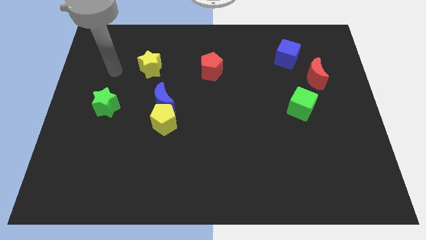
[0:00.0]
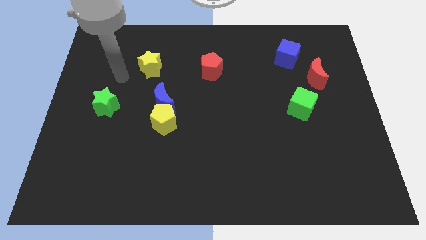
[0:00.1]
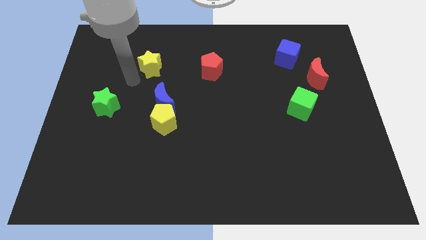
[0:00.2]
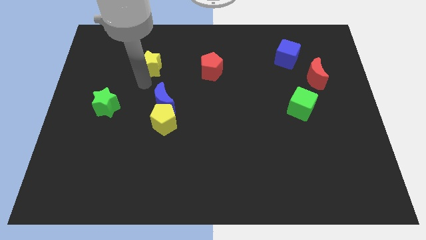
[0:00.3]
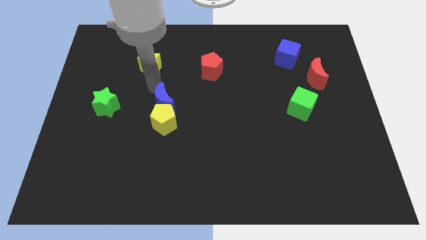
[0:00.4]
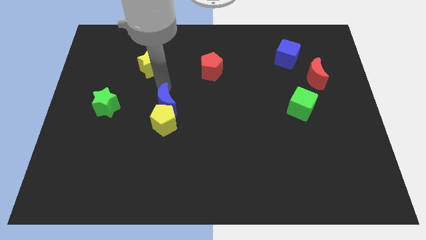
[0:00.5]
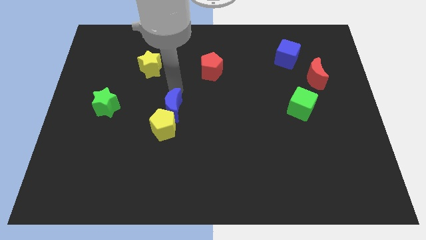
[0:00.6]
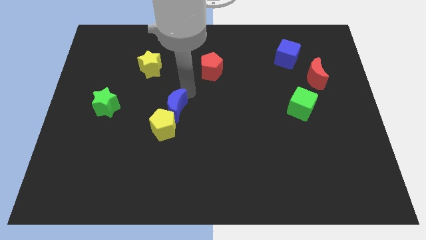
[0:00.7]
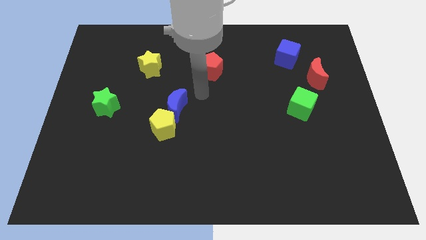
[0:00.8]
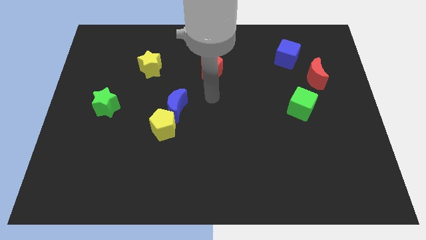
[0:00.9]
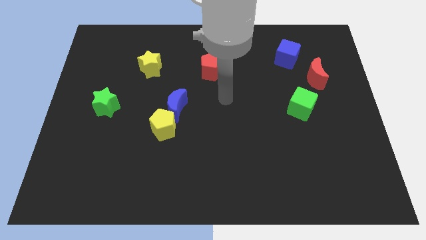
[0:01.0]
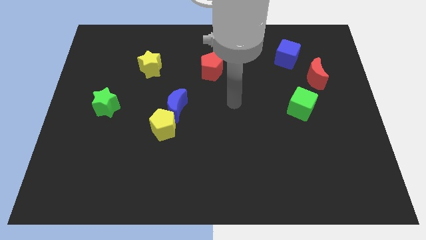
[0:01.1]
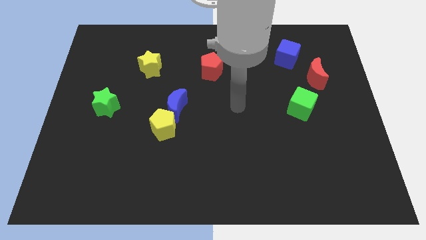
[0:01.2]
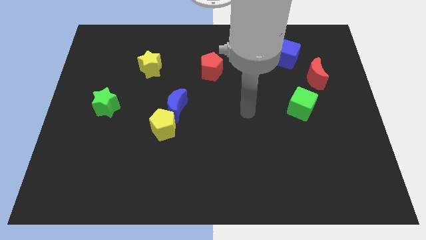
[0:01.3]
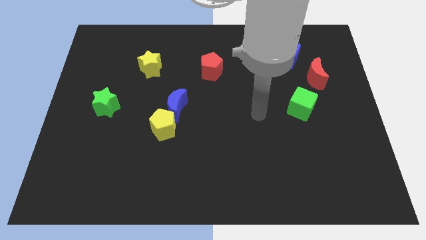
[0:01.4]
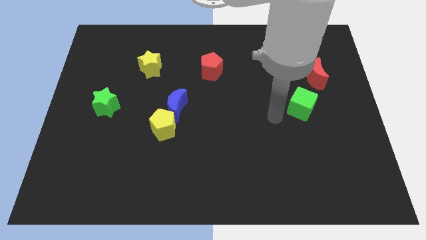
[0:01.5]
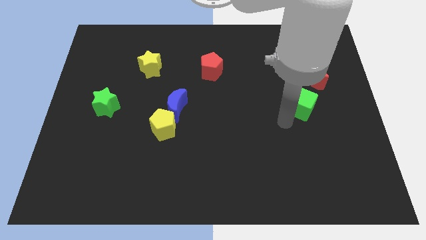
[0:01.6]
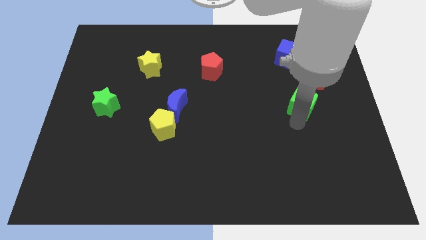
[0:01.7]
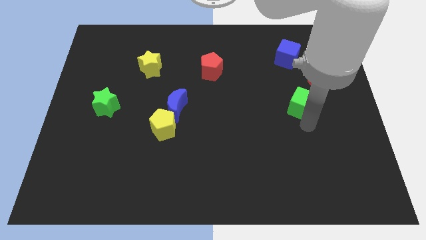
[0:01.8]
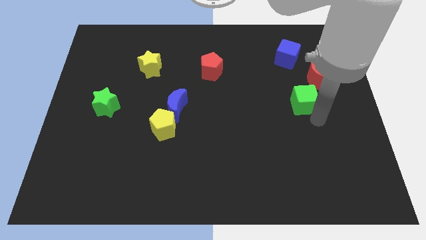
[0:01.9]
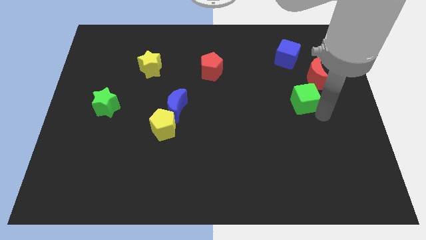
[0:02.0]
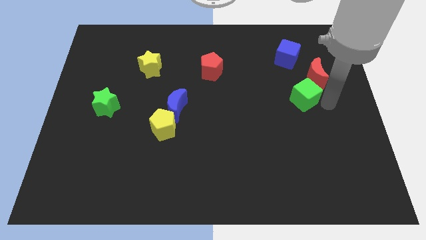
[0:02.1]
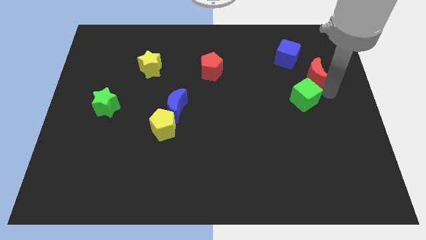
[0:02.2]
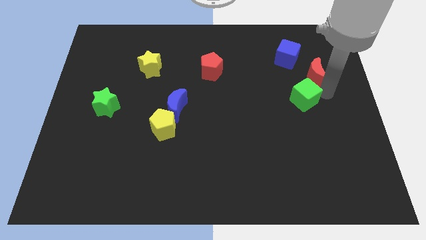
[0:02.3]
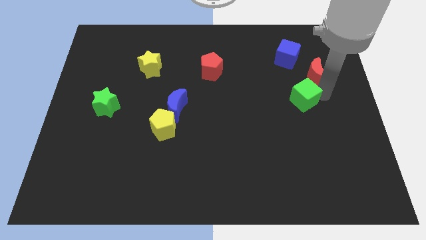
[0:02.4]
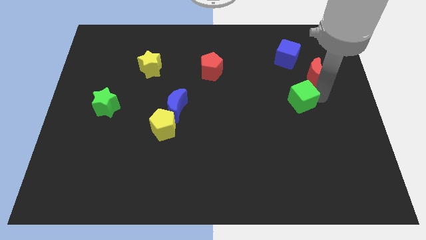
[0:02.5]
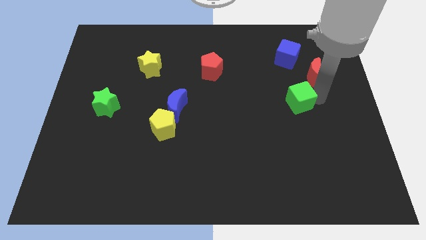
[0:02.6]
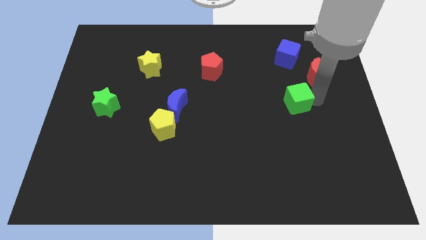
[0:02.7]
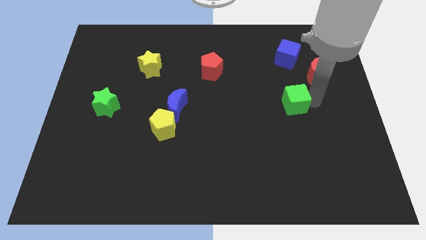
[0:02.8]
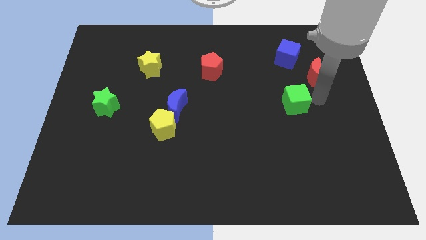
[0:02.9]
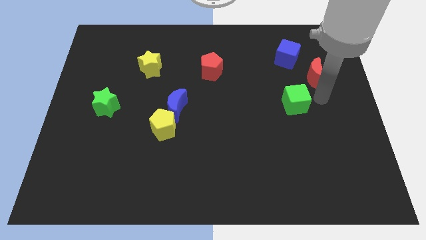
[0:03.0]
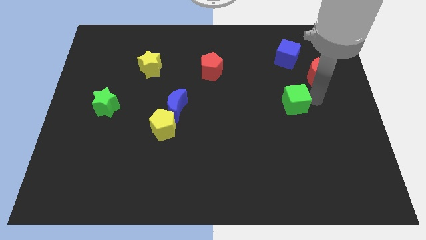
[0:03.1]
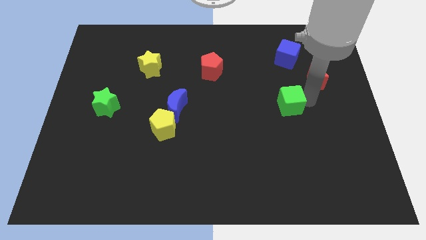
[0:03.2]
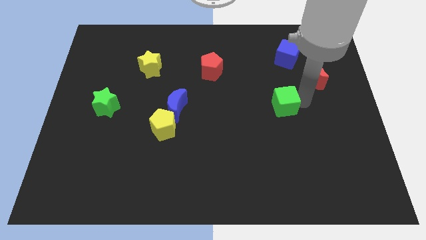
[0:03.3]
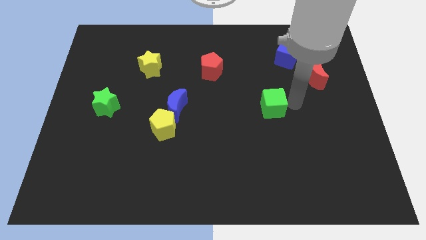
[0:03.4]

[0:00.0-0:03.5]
slightly slide the green cube to the left

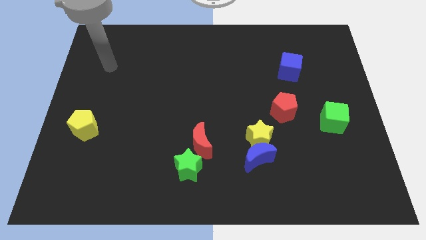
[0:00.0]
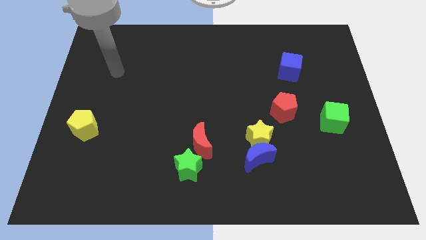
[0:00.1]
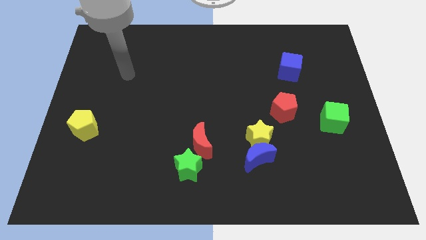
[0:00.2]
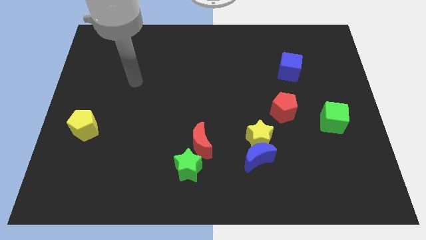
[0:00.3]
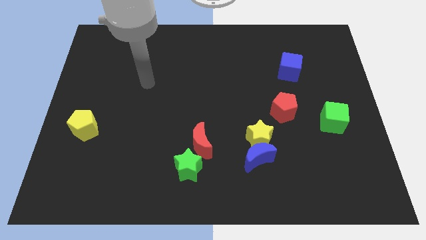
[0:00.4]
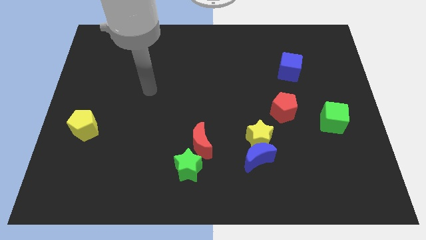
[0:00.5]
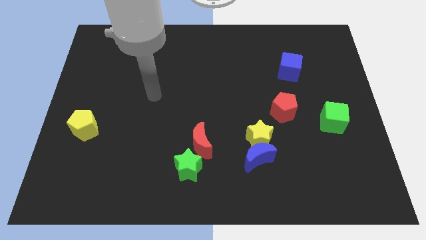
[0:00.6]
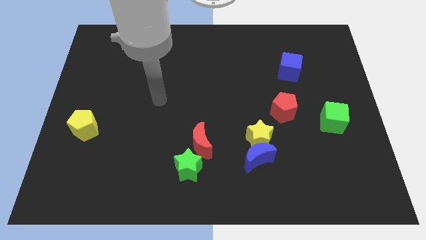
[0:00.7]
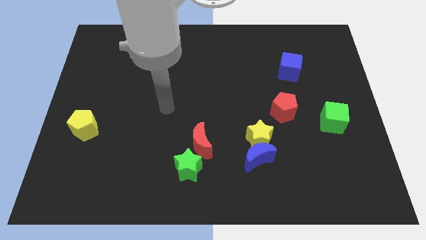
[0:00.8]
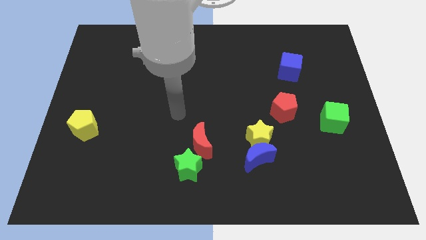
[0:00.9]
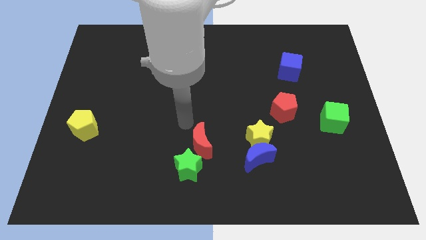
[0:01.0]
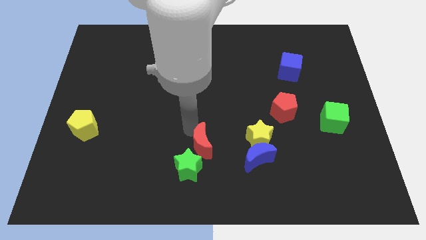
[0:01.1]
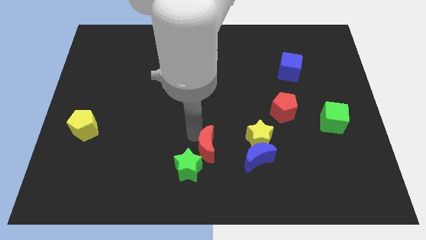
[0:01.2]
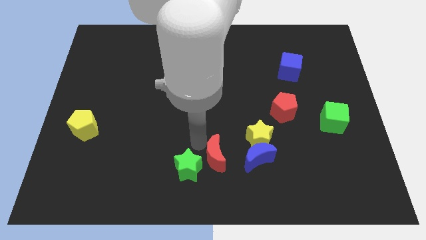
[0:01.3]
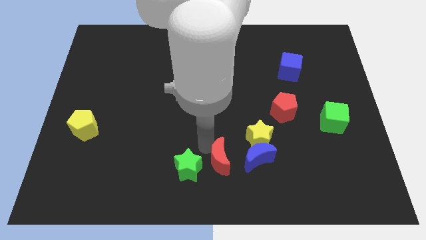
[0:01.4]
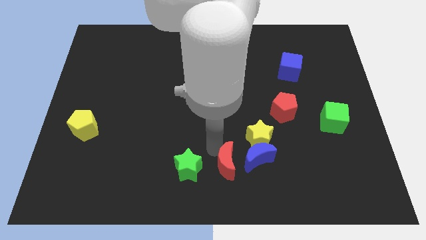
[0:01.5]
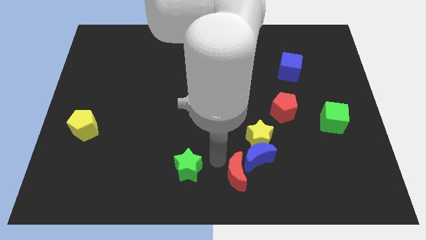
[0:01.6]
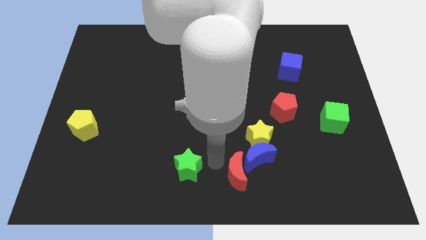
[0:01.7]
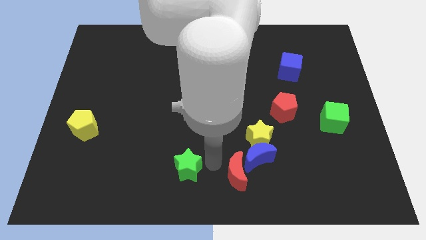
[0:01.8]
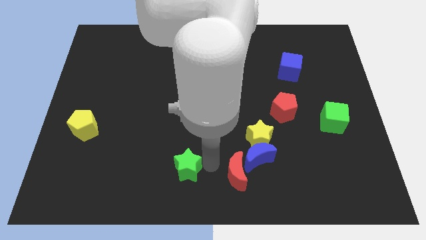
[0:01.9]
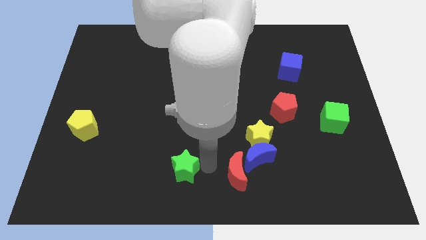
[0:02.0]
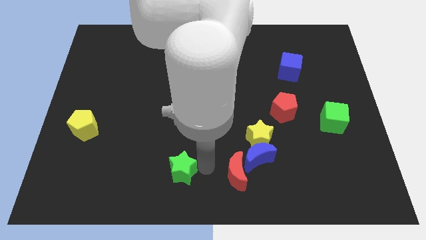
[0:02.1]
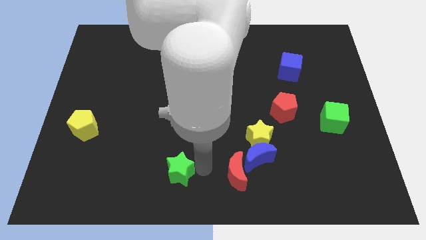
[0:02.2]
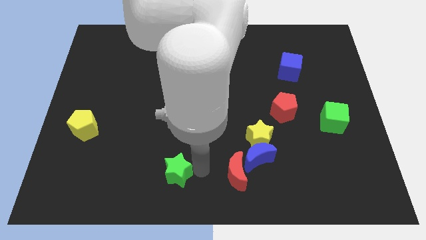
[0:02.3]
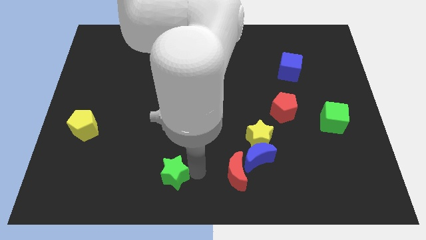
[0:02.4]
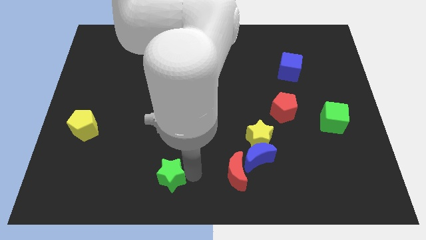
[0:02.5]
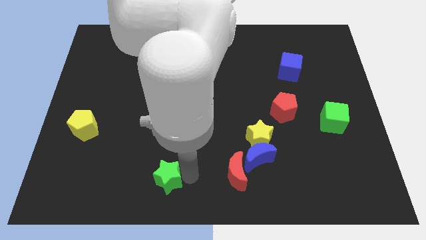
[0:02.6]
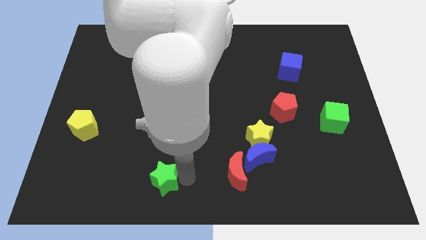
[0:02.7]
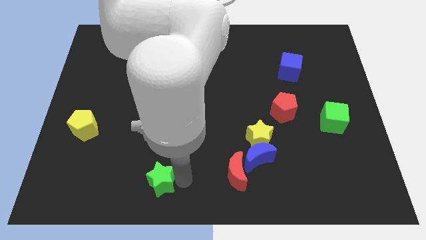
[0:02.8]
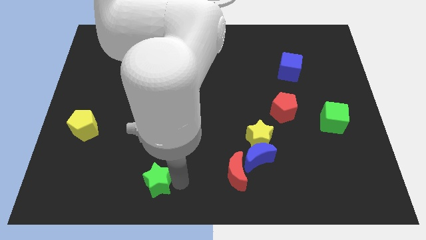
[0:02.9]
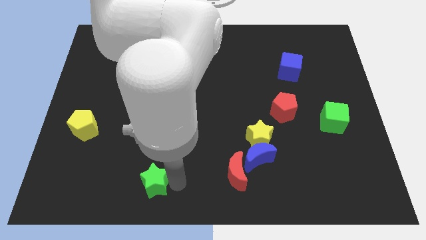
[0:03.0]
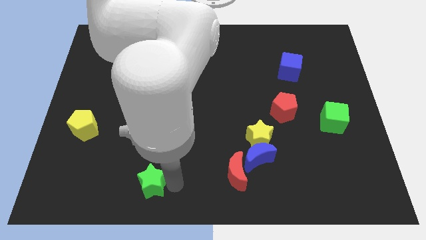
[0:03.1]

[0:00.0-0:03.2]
slightly move the green star left

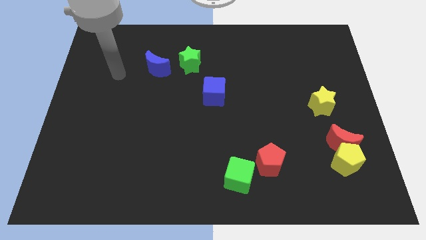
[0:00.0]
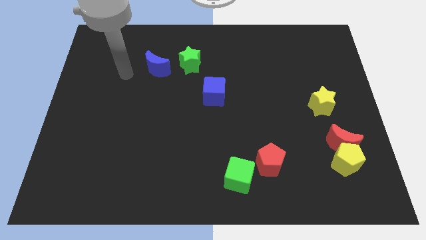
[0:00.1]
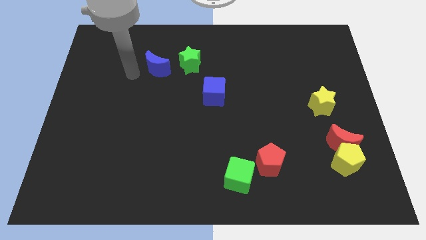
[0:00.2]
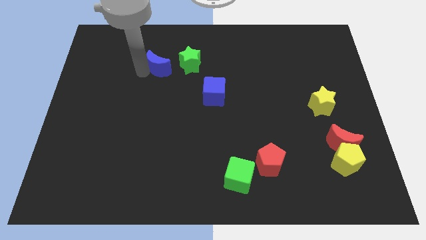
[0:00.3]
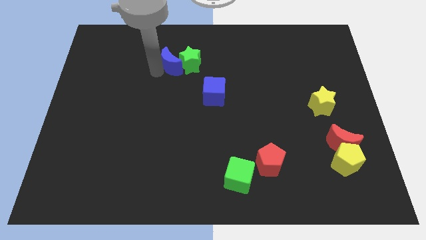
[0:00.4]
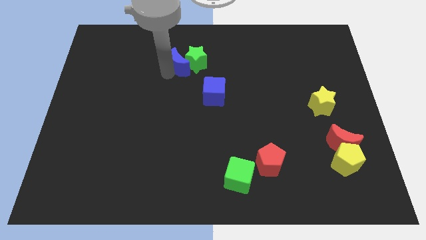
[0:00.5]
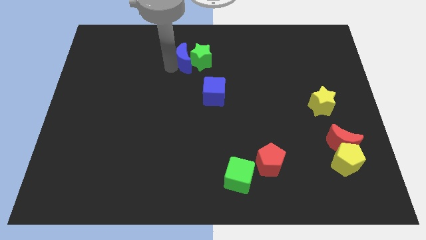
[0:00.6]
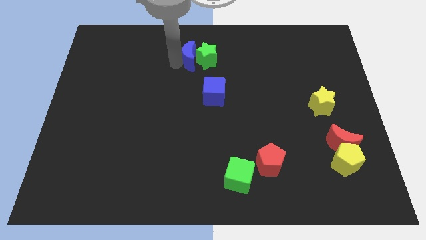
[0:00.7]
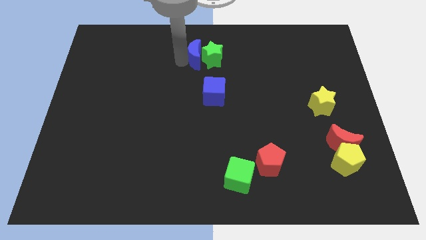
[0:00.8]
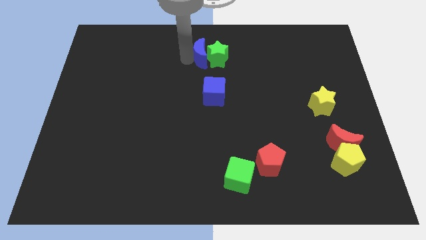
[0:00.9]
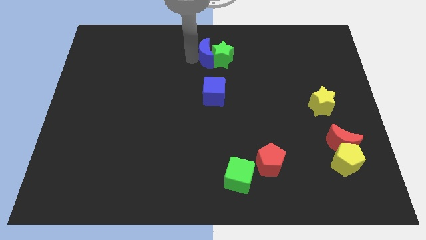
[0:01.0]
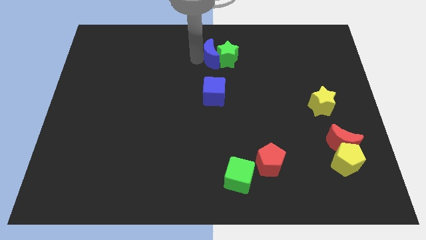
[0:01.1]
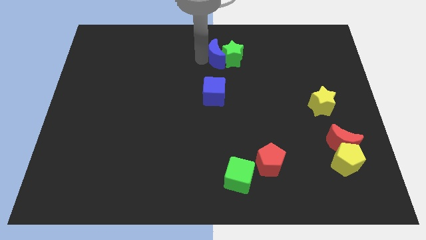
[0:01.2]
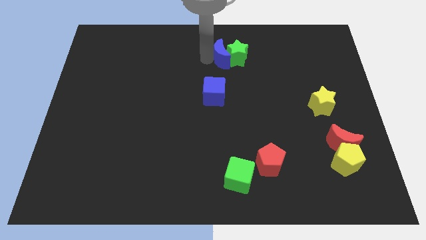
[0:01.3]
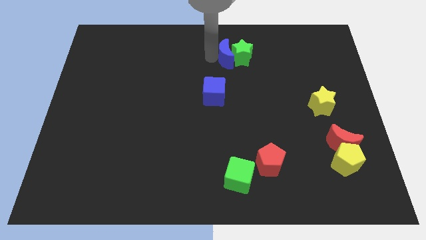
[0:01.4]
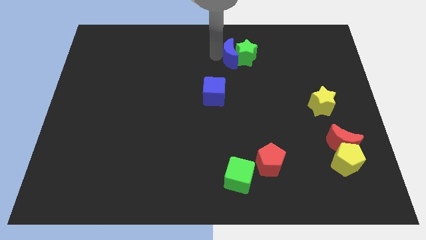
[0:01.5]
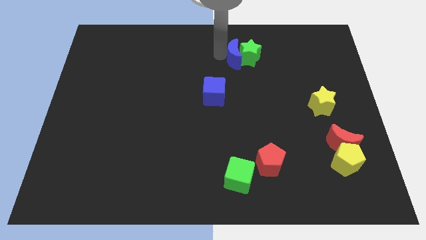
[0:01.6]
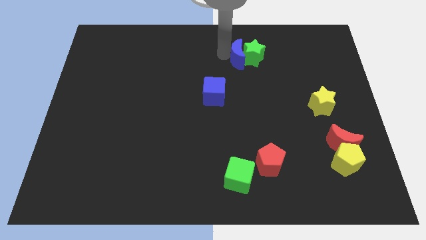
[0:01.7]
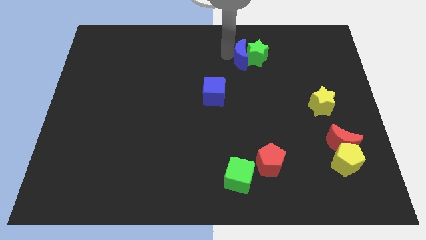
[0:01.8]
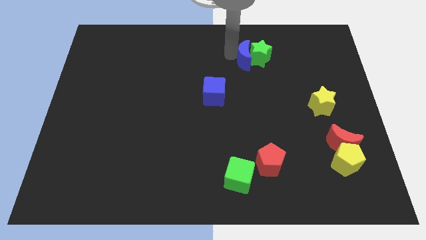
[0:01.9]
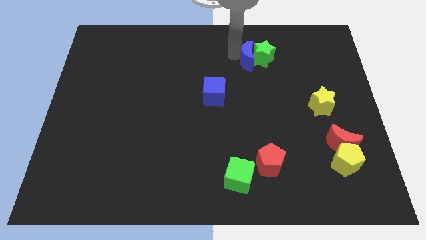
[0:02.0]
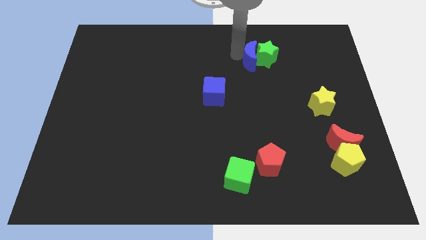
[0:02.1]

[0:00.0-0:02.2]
slide the green star right
